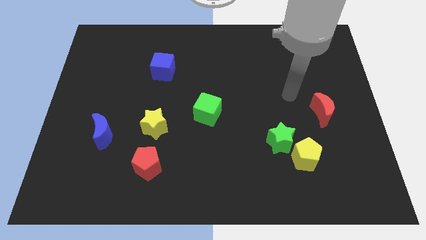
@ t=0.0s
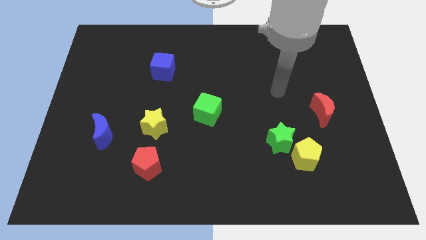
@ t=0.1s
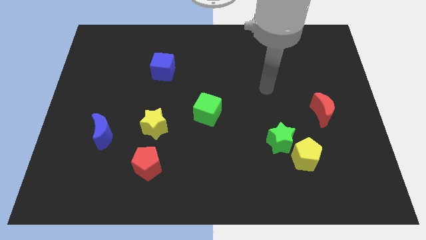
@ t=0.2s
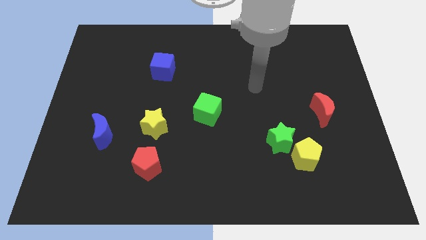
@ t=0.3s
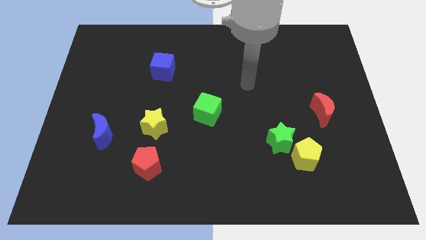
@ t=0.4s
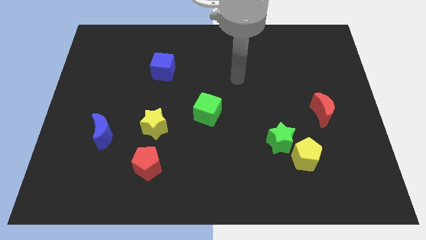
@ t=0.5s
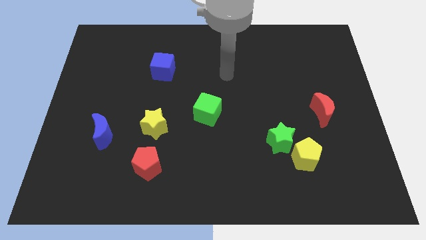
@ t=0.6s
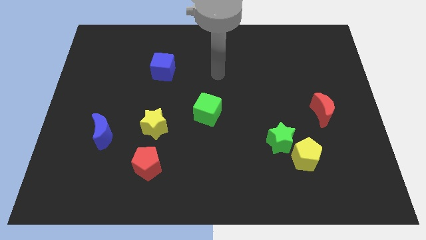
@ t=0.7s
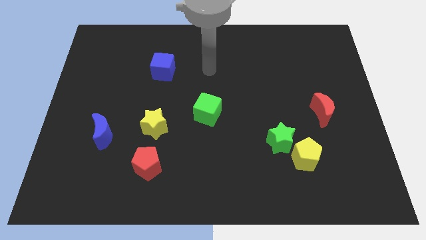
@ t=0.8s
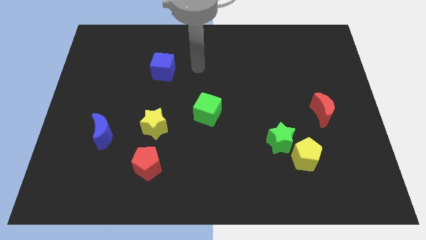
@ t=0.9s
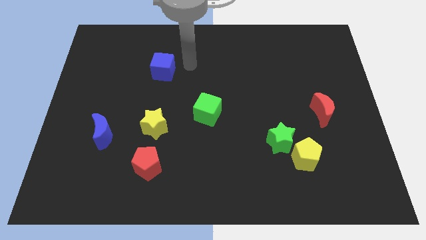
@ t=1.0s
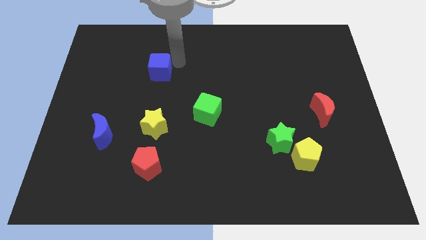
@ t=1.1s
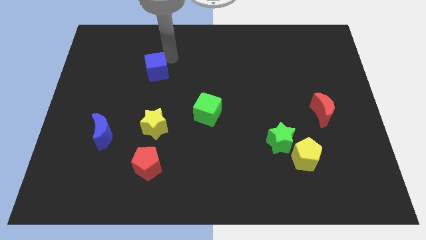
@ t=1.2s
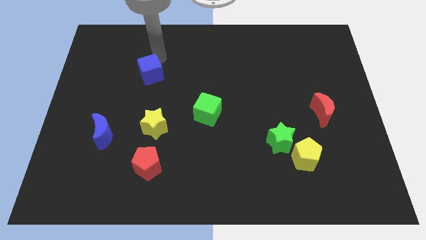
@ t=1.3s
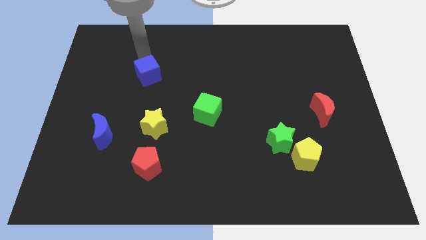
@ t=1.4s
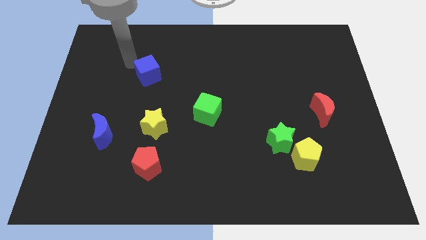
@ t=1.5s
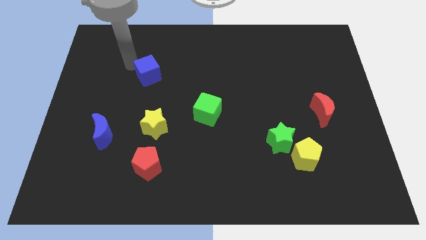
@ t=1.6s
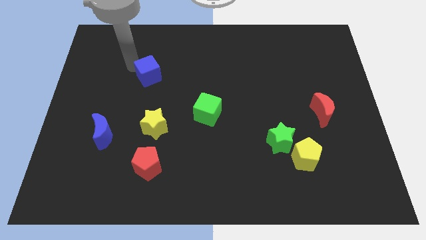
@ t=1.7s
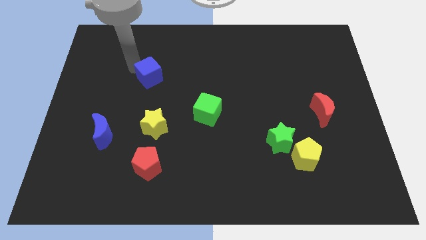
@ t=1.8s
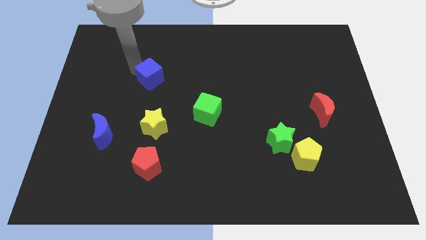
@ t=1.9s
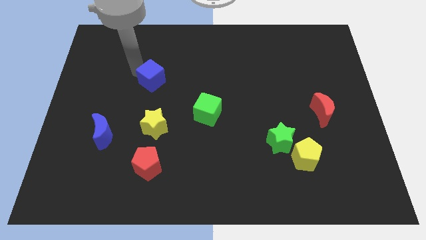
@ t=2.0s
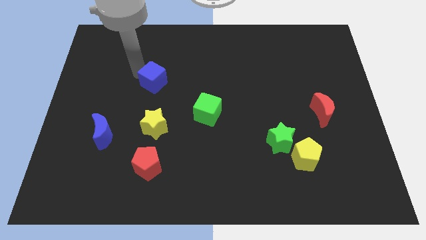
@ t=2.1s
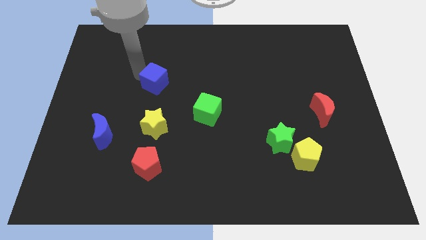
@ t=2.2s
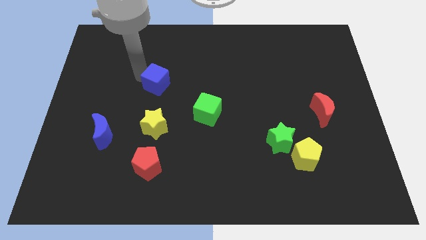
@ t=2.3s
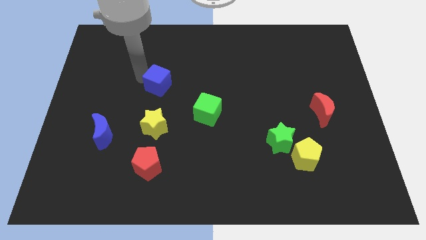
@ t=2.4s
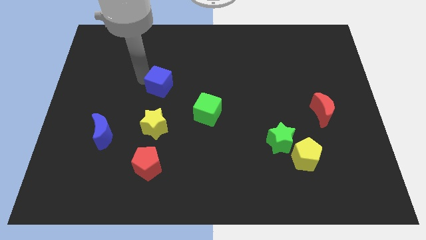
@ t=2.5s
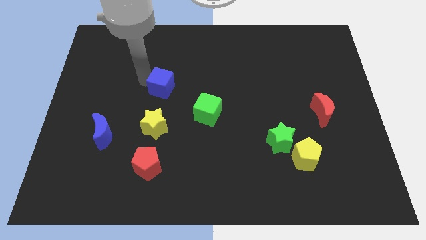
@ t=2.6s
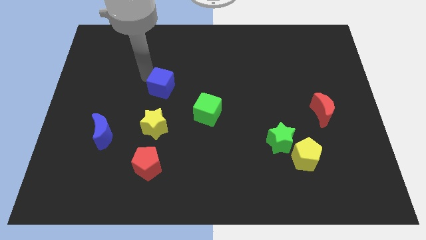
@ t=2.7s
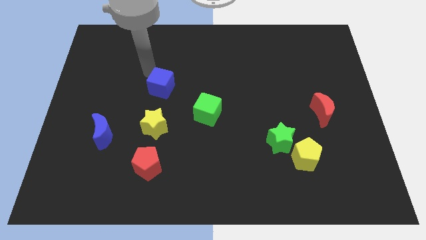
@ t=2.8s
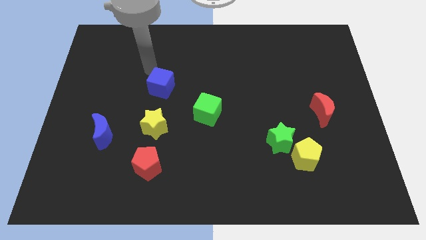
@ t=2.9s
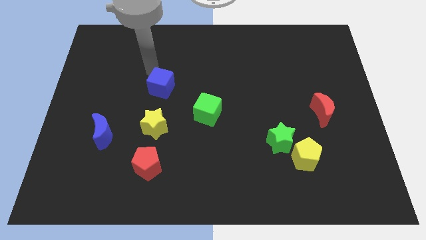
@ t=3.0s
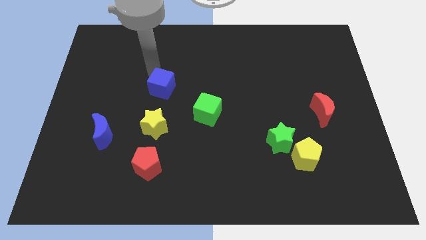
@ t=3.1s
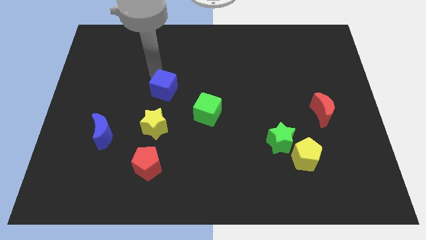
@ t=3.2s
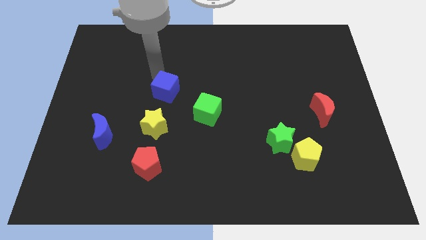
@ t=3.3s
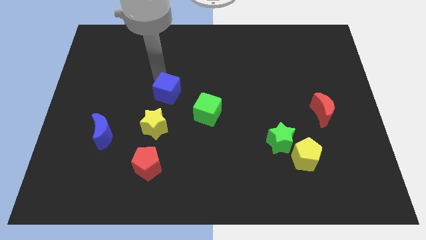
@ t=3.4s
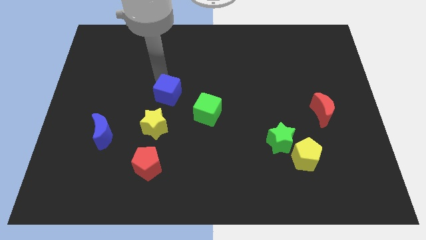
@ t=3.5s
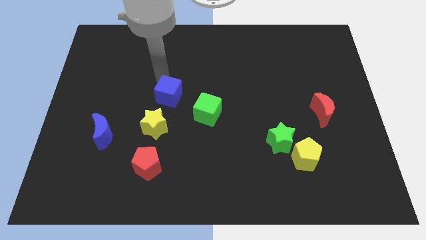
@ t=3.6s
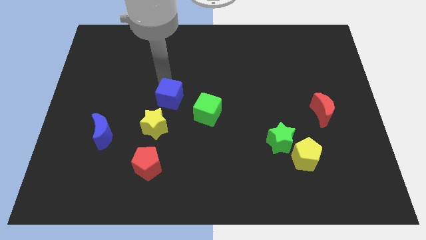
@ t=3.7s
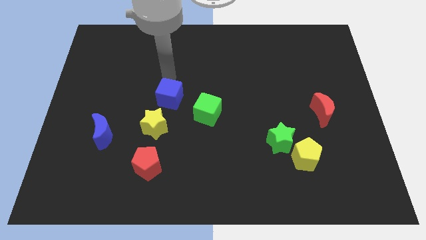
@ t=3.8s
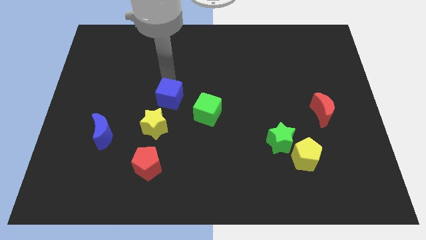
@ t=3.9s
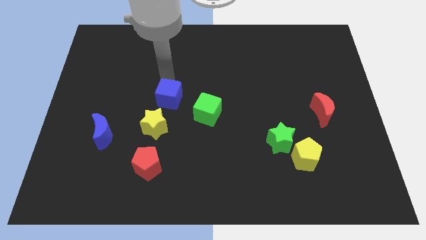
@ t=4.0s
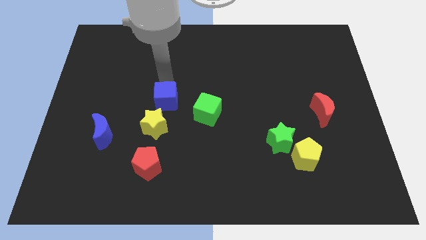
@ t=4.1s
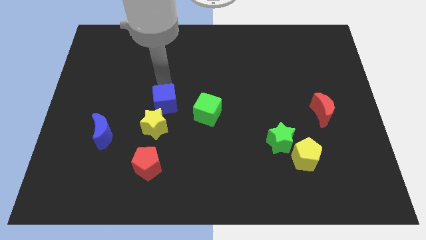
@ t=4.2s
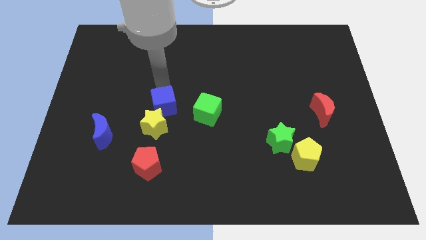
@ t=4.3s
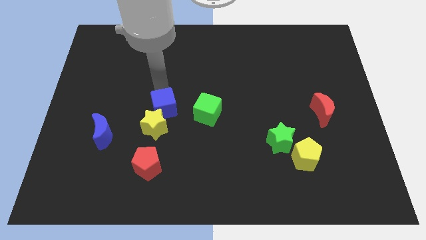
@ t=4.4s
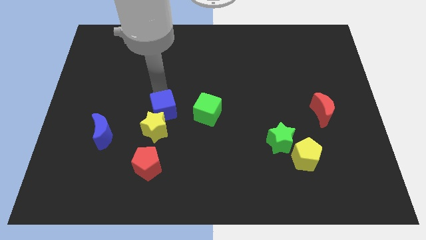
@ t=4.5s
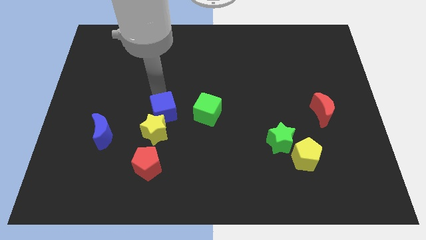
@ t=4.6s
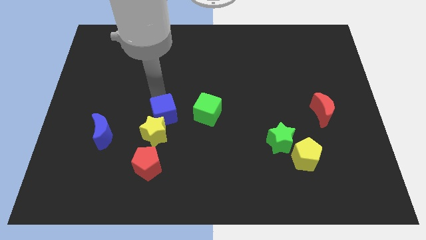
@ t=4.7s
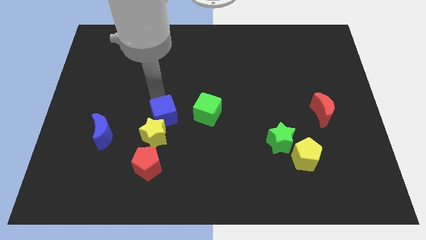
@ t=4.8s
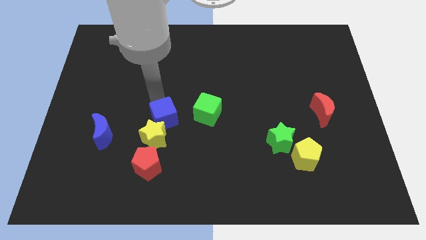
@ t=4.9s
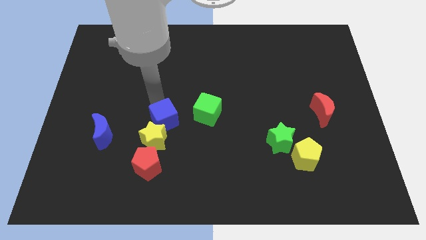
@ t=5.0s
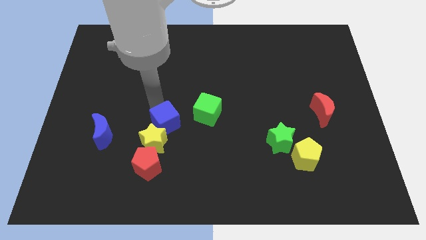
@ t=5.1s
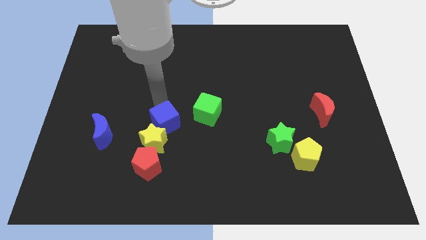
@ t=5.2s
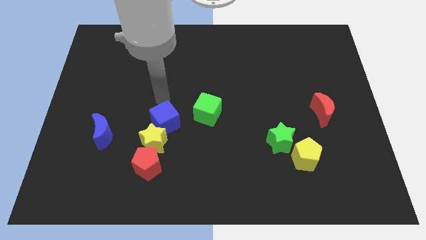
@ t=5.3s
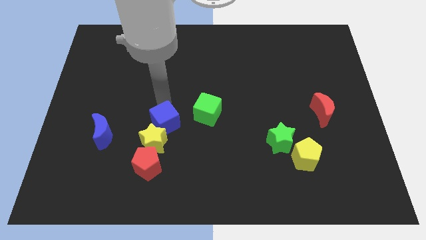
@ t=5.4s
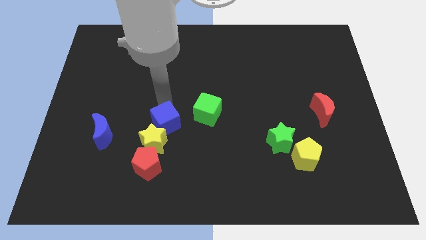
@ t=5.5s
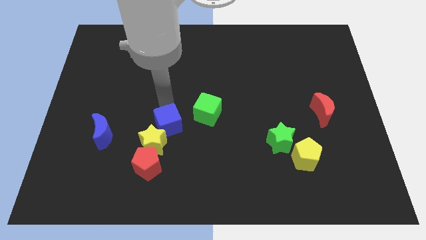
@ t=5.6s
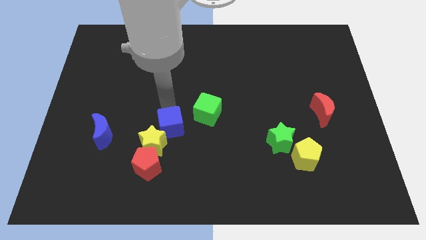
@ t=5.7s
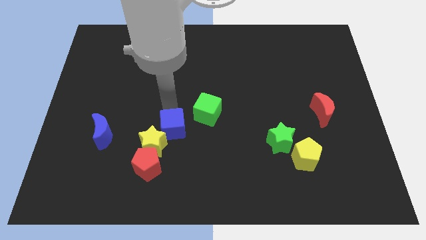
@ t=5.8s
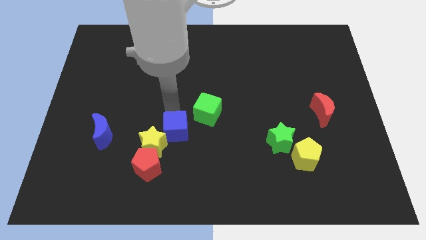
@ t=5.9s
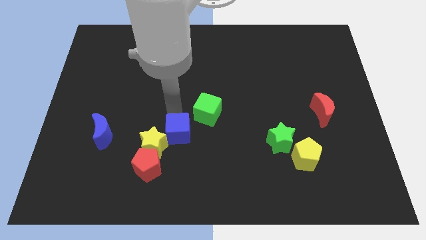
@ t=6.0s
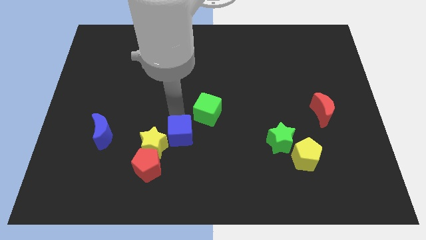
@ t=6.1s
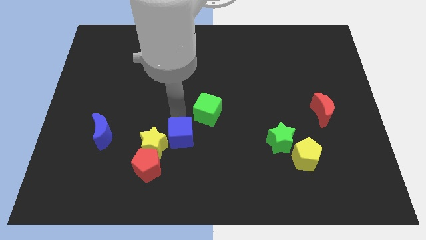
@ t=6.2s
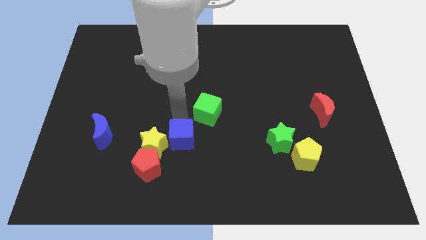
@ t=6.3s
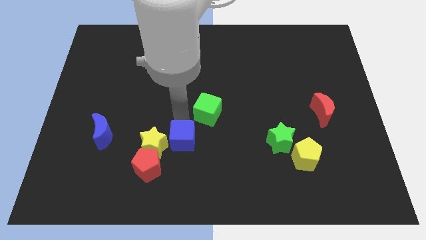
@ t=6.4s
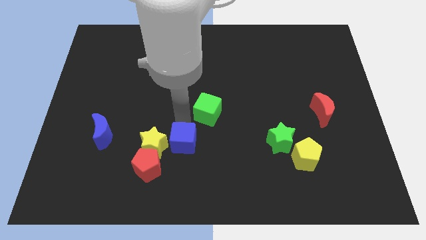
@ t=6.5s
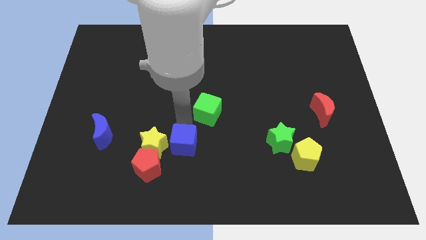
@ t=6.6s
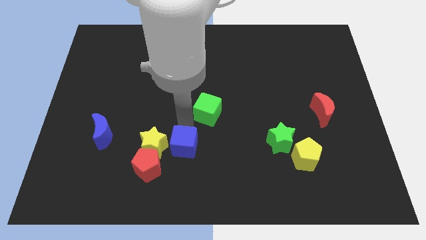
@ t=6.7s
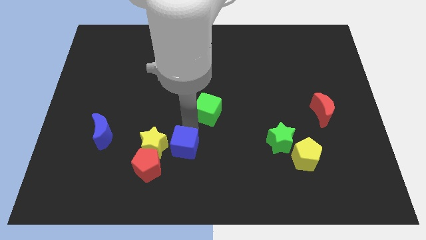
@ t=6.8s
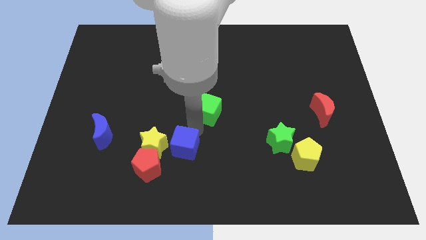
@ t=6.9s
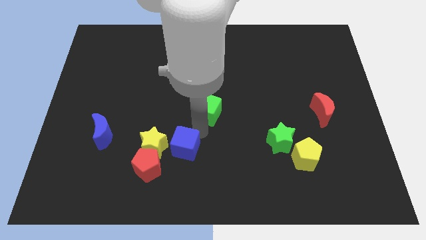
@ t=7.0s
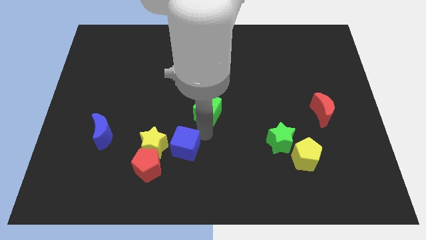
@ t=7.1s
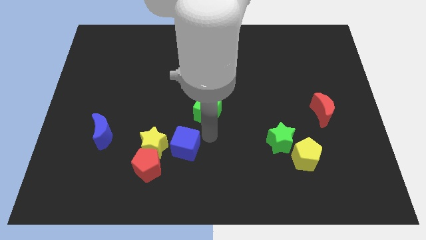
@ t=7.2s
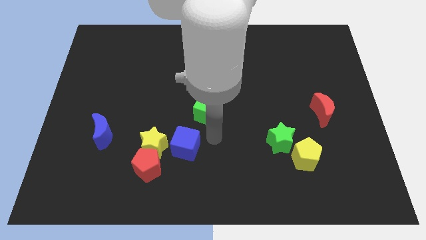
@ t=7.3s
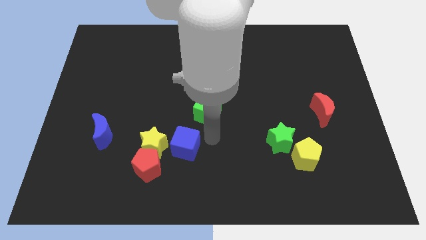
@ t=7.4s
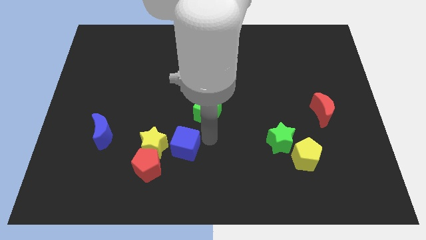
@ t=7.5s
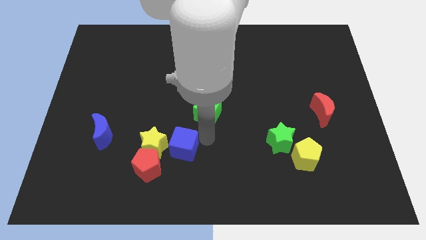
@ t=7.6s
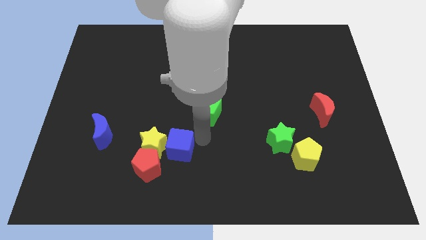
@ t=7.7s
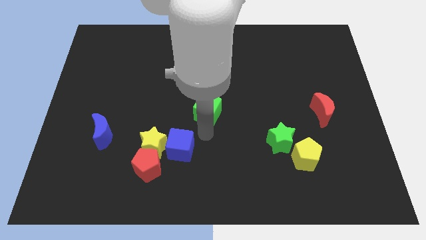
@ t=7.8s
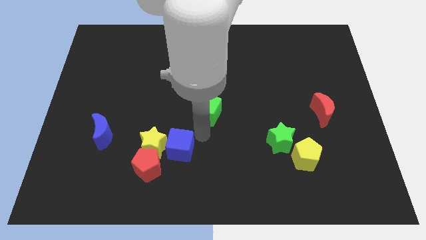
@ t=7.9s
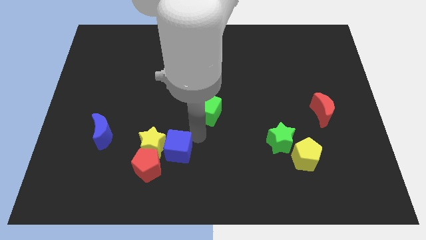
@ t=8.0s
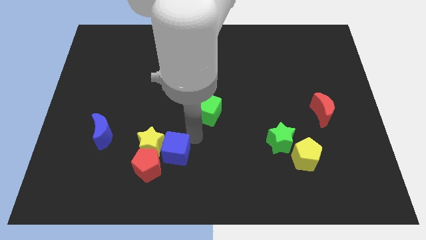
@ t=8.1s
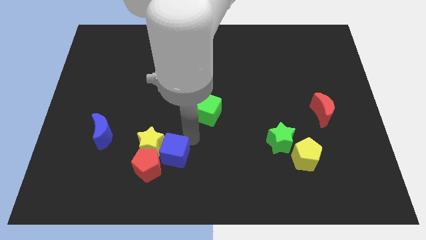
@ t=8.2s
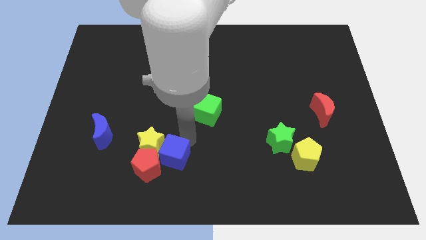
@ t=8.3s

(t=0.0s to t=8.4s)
move the blue cube to the red pentagon
